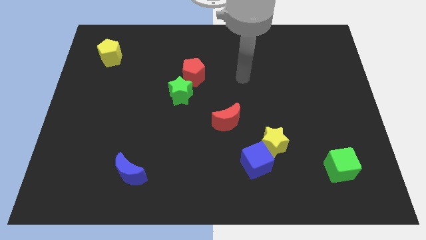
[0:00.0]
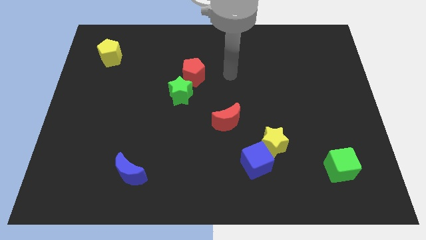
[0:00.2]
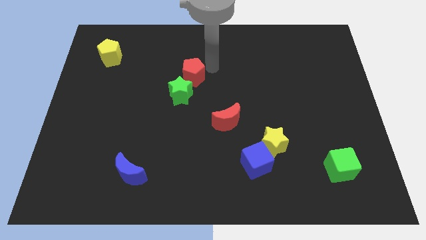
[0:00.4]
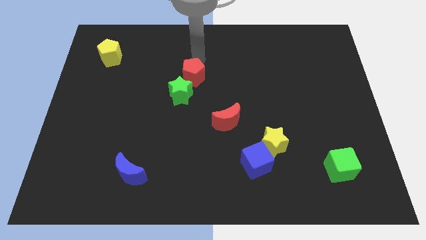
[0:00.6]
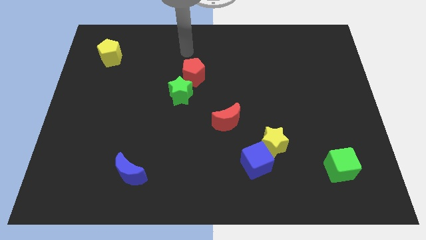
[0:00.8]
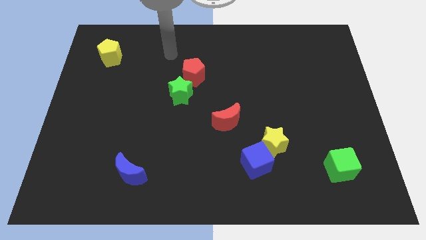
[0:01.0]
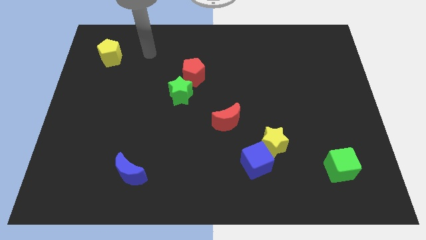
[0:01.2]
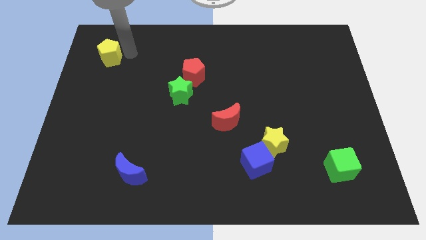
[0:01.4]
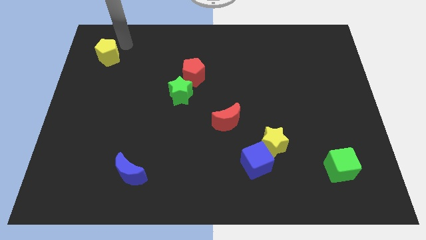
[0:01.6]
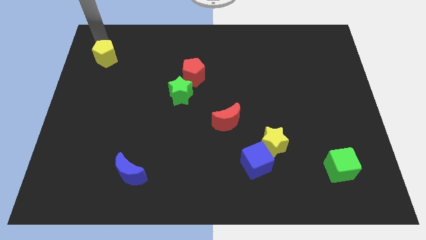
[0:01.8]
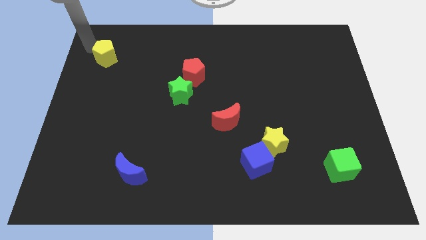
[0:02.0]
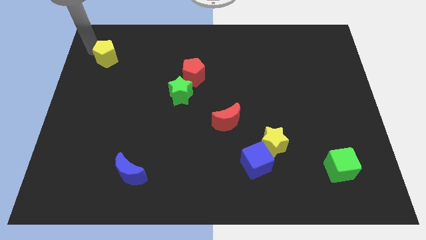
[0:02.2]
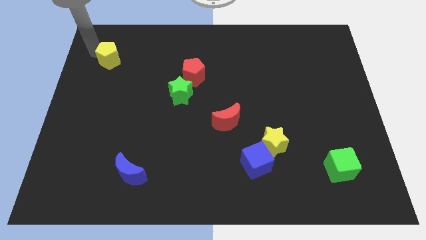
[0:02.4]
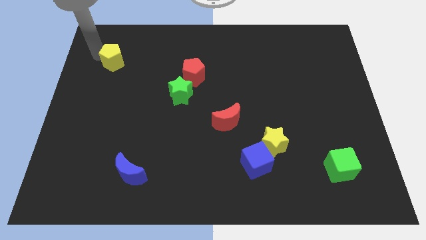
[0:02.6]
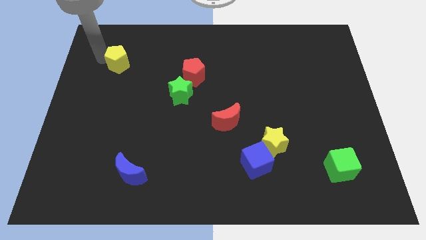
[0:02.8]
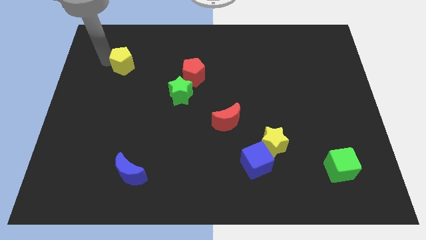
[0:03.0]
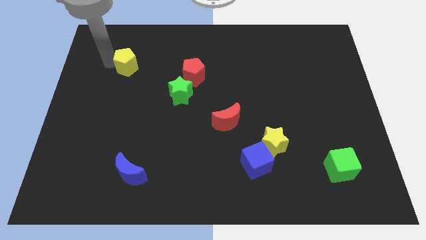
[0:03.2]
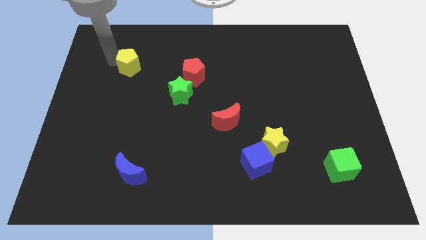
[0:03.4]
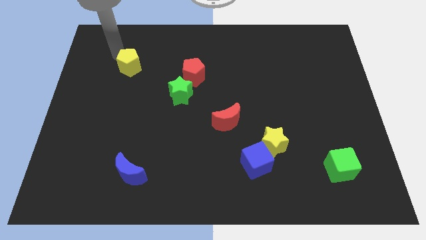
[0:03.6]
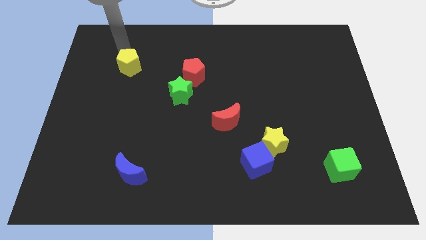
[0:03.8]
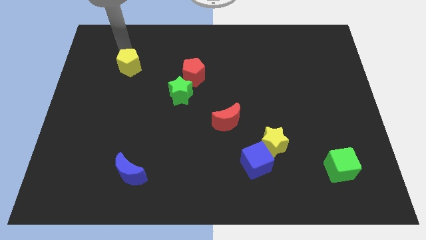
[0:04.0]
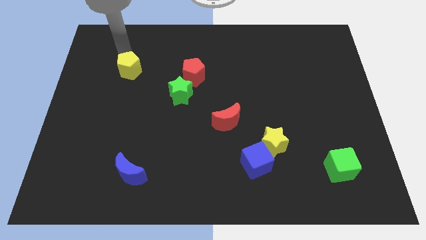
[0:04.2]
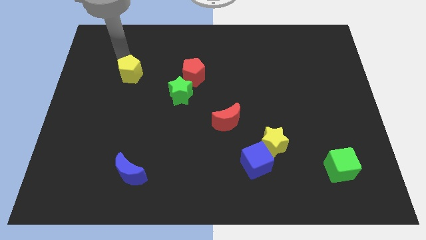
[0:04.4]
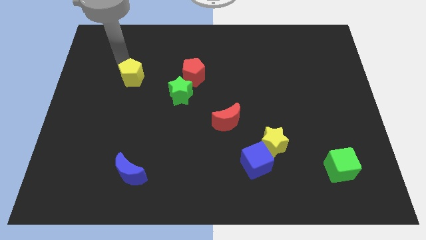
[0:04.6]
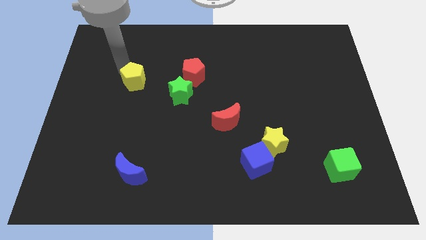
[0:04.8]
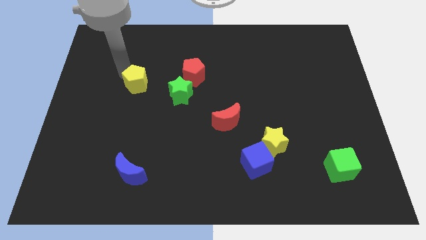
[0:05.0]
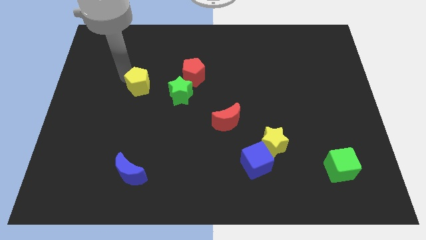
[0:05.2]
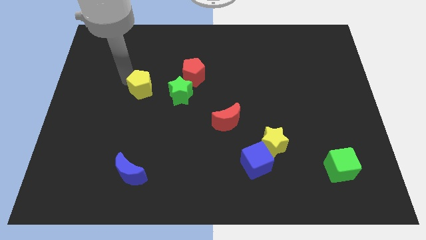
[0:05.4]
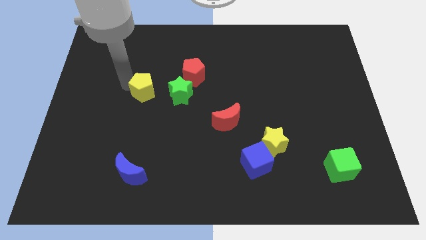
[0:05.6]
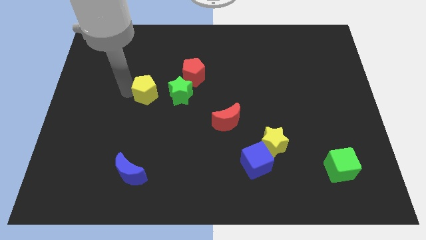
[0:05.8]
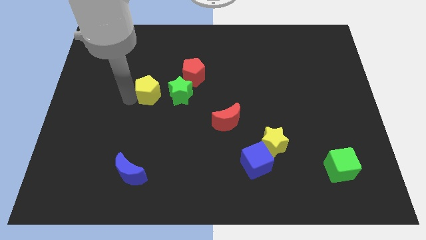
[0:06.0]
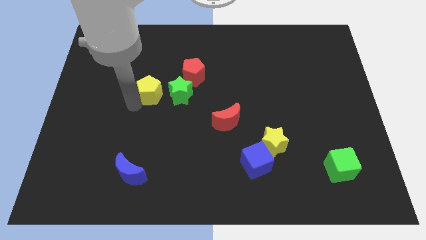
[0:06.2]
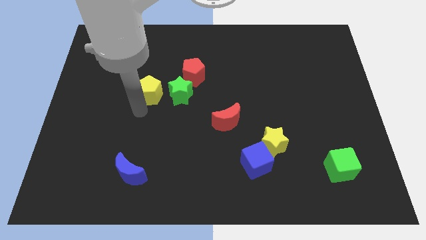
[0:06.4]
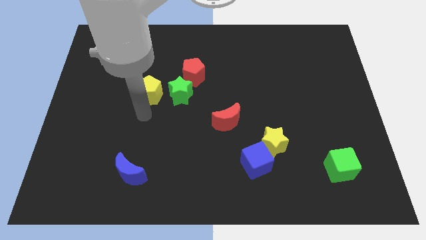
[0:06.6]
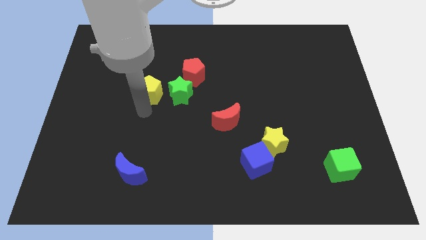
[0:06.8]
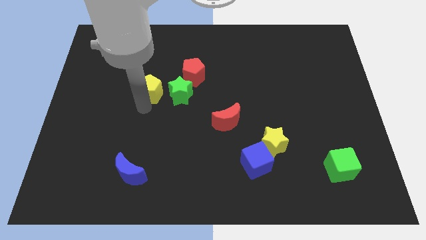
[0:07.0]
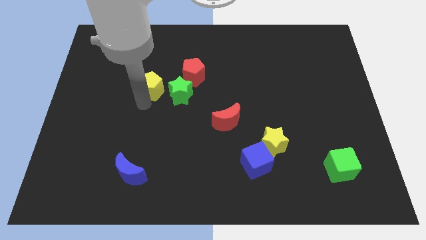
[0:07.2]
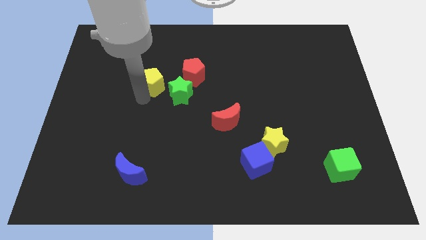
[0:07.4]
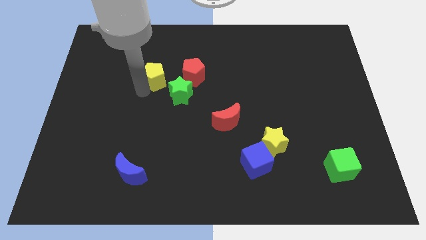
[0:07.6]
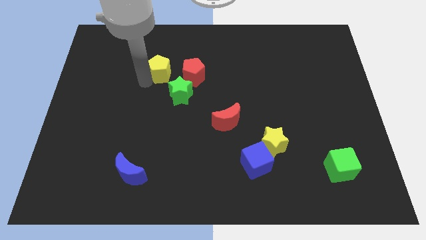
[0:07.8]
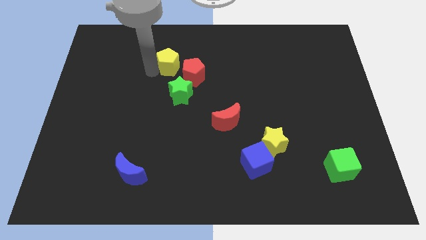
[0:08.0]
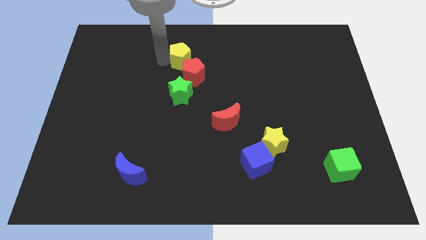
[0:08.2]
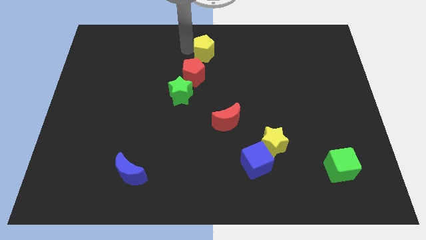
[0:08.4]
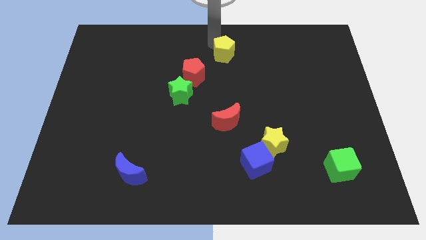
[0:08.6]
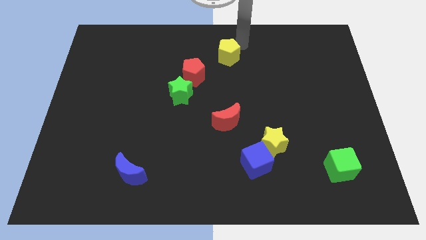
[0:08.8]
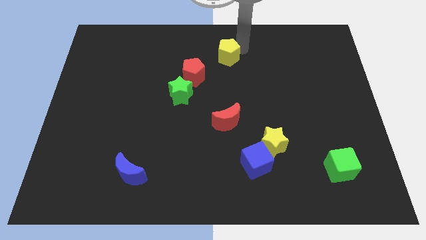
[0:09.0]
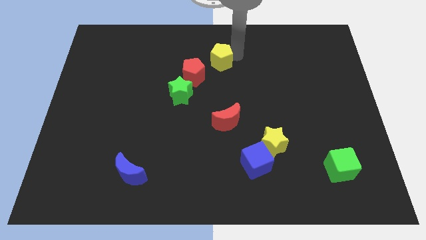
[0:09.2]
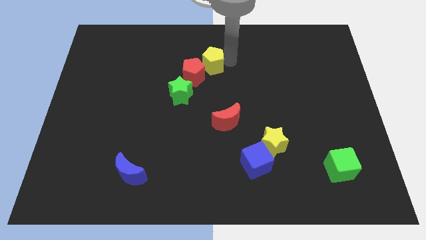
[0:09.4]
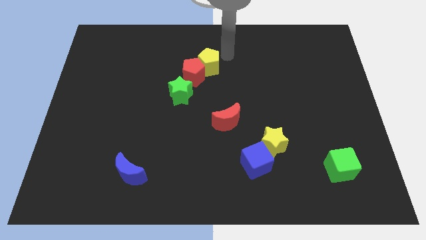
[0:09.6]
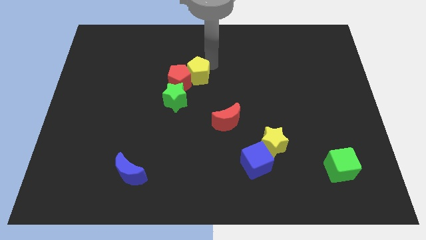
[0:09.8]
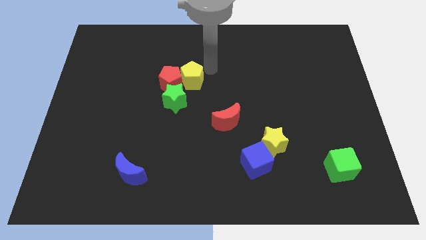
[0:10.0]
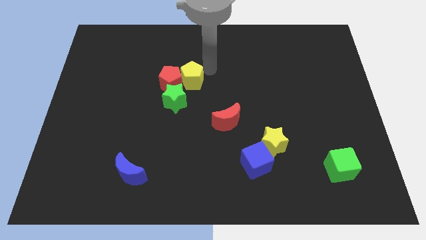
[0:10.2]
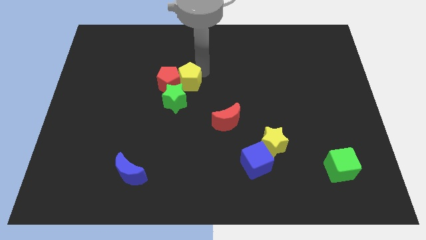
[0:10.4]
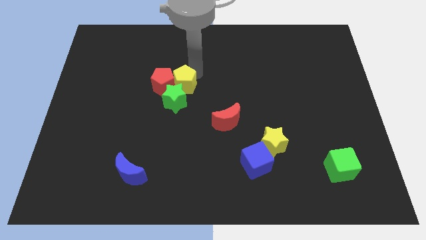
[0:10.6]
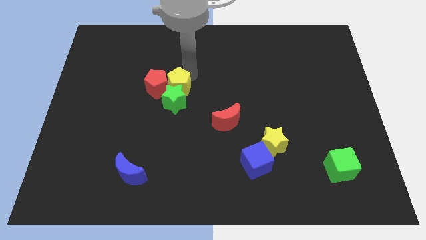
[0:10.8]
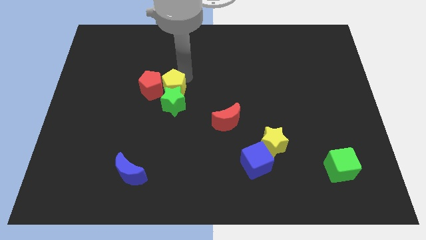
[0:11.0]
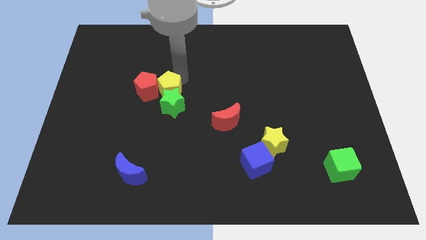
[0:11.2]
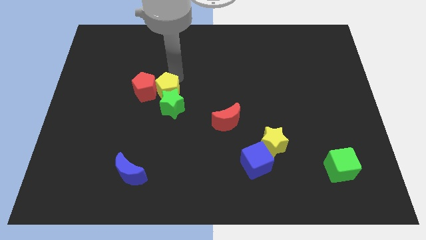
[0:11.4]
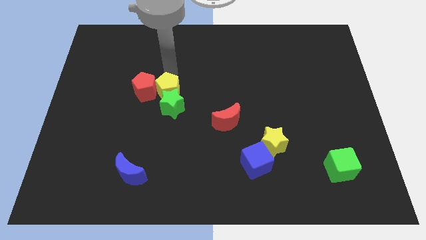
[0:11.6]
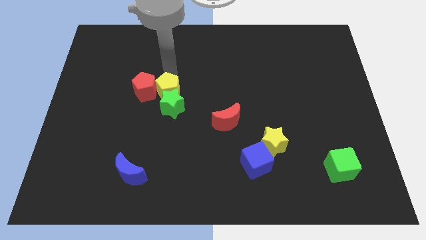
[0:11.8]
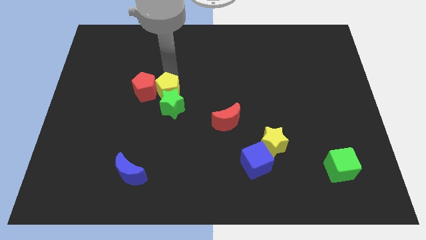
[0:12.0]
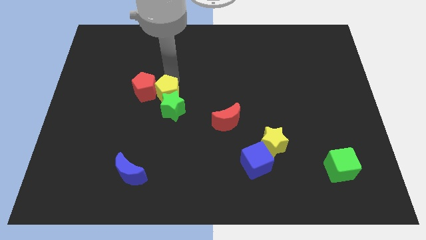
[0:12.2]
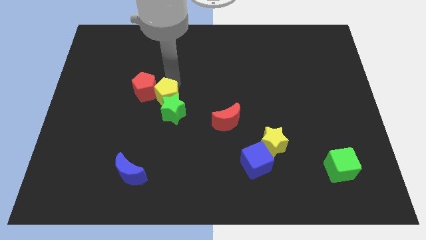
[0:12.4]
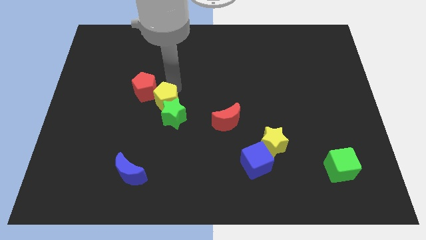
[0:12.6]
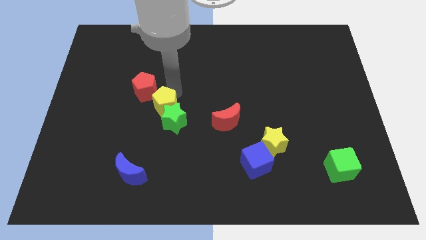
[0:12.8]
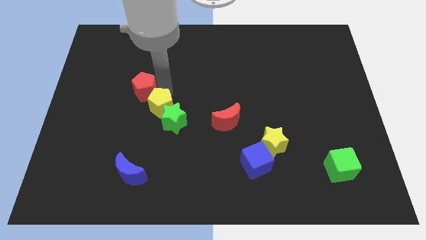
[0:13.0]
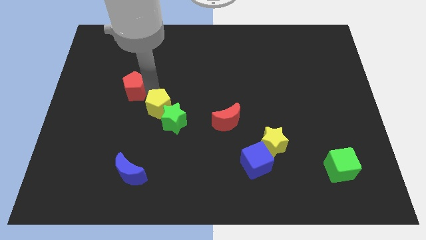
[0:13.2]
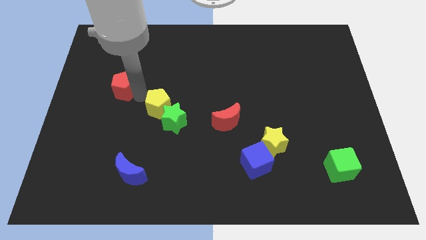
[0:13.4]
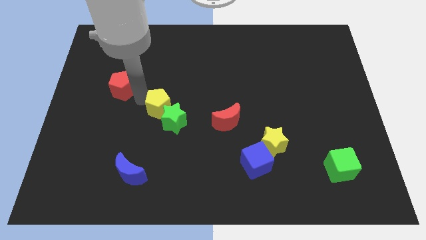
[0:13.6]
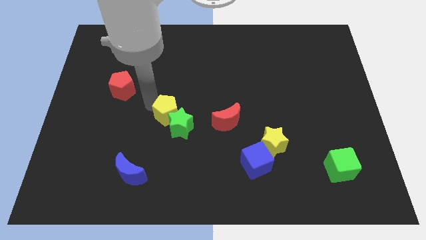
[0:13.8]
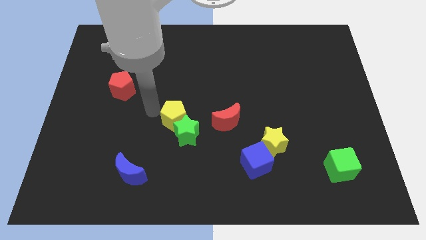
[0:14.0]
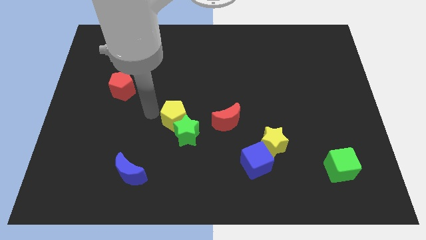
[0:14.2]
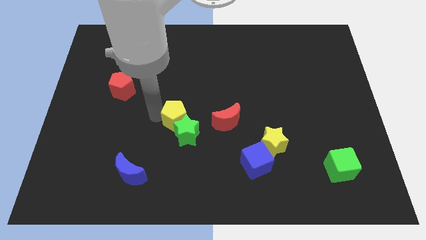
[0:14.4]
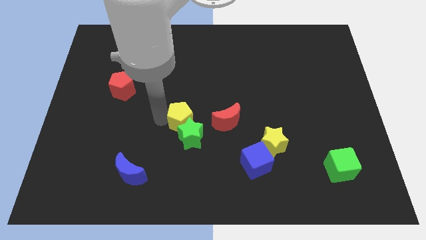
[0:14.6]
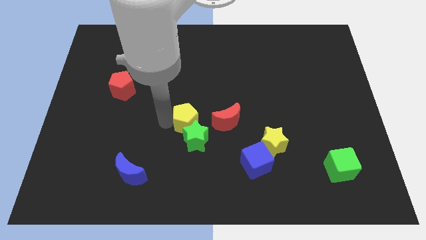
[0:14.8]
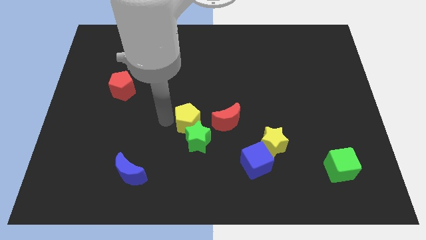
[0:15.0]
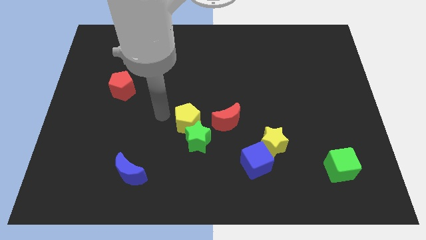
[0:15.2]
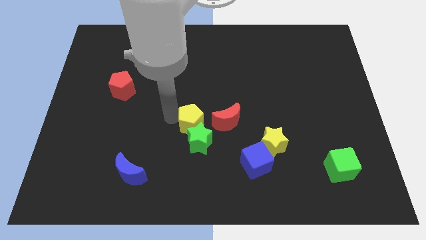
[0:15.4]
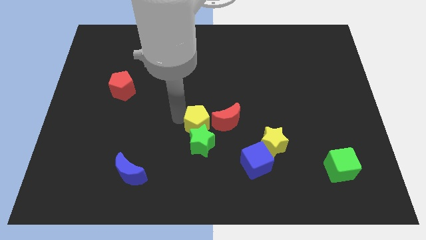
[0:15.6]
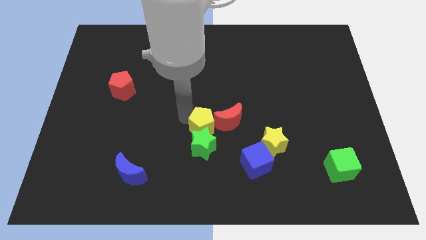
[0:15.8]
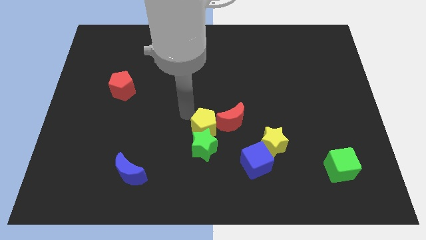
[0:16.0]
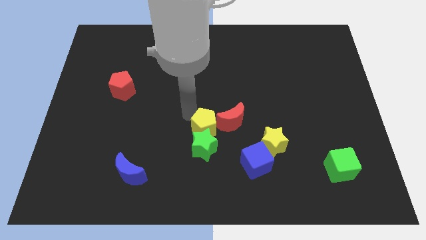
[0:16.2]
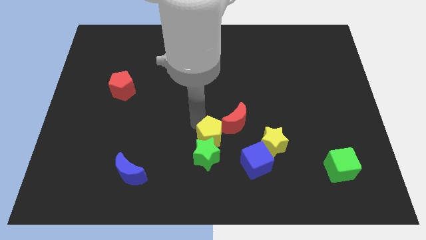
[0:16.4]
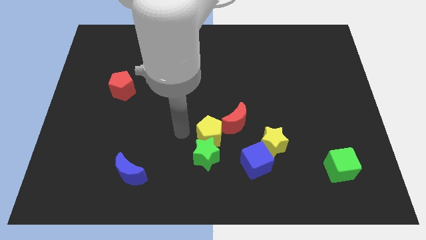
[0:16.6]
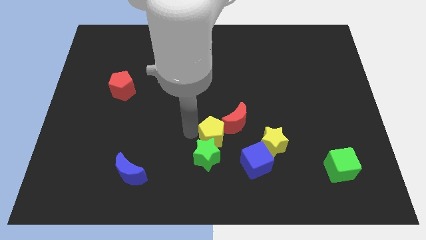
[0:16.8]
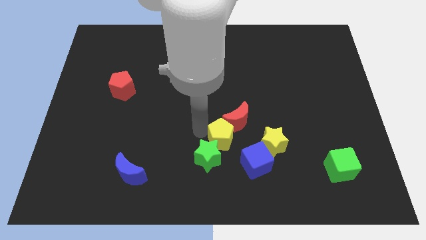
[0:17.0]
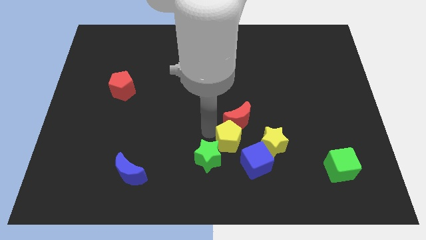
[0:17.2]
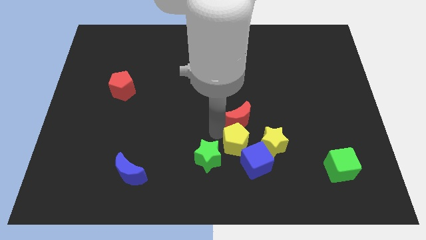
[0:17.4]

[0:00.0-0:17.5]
slide the yellow pentagon to the bottom right of the red moon
